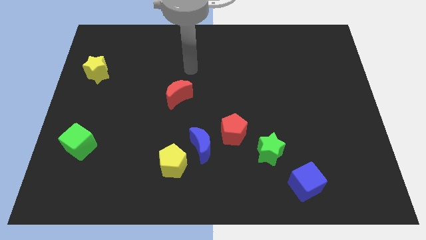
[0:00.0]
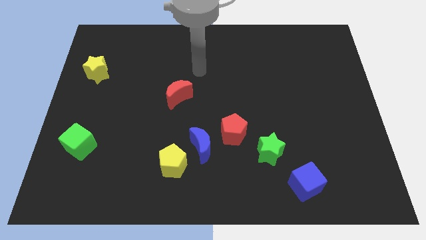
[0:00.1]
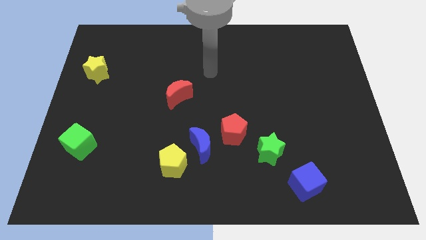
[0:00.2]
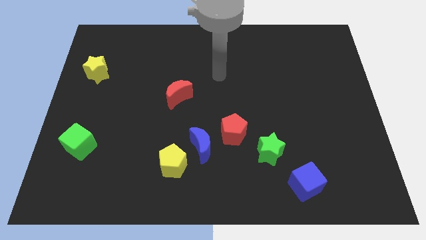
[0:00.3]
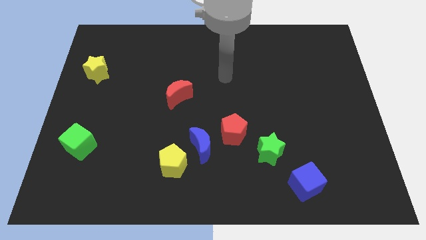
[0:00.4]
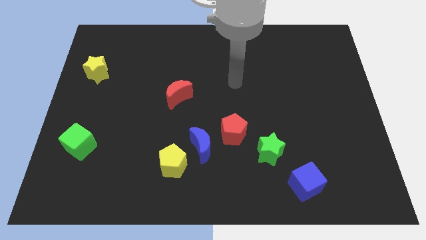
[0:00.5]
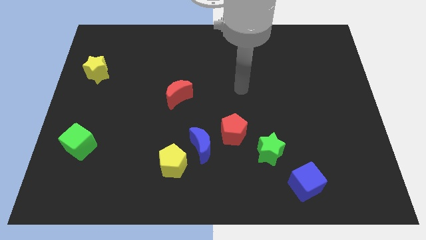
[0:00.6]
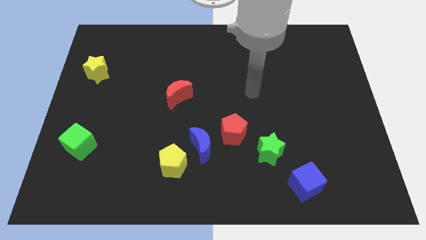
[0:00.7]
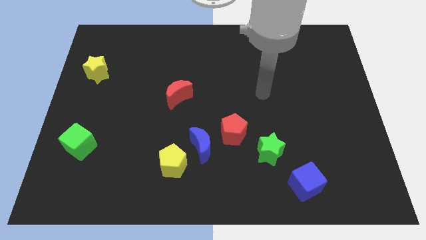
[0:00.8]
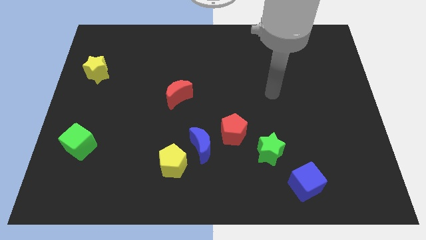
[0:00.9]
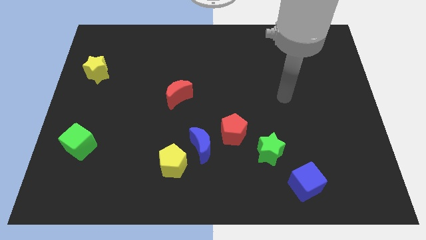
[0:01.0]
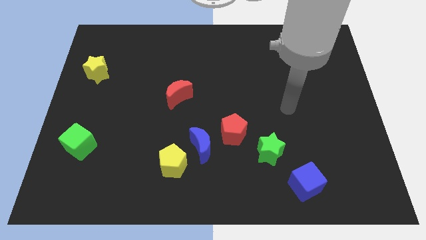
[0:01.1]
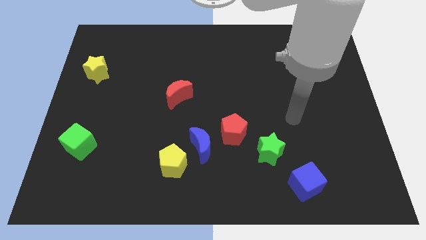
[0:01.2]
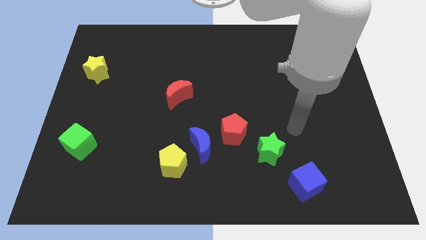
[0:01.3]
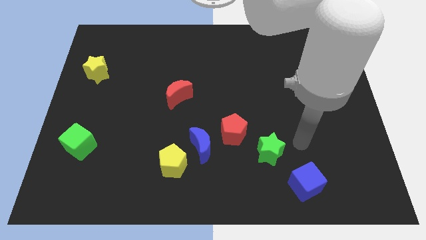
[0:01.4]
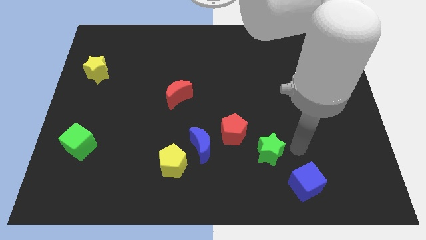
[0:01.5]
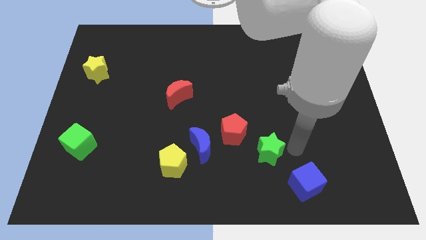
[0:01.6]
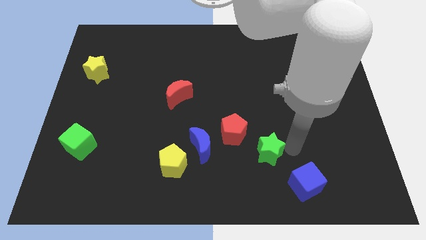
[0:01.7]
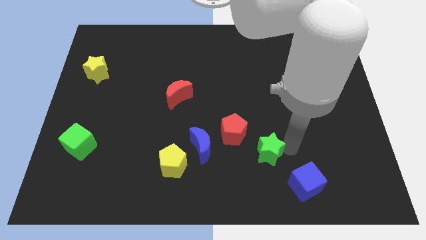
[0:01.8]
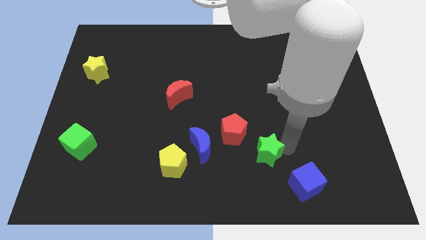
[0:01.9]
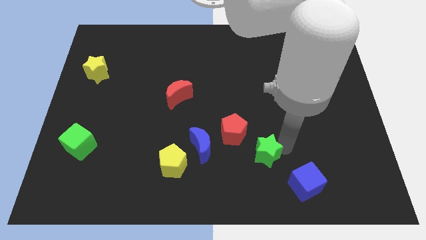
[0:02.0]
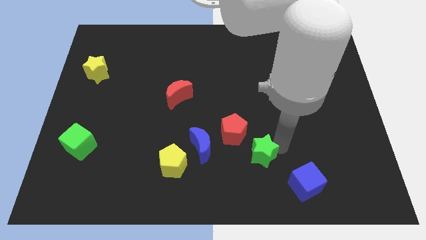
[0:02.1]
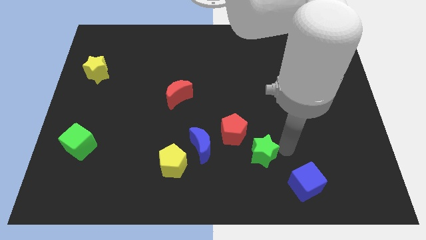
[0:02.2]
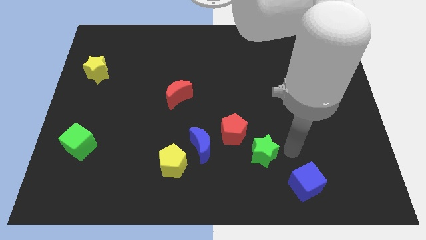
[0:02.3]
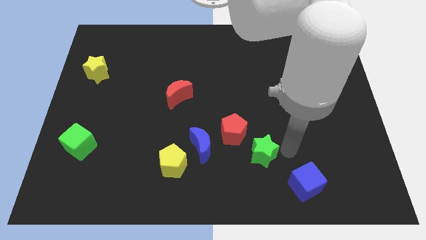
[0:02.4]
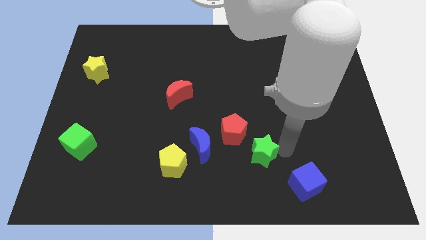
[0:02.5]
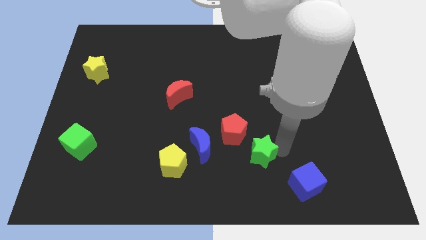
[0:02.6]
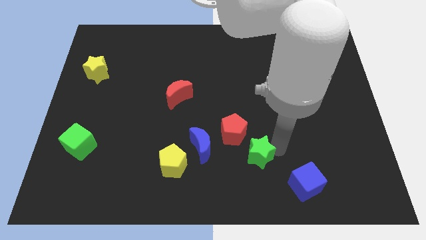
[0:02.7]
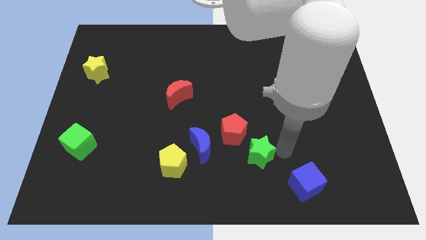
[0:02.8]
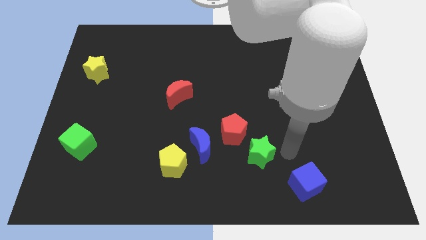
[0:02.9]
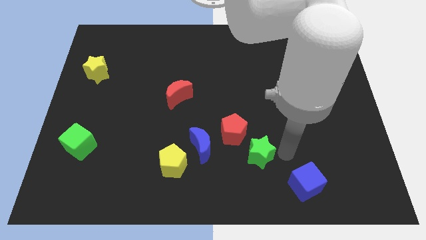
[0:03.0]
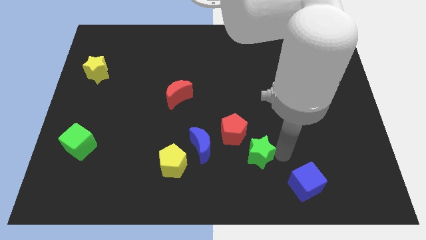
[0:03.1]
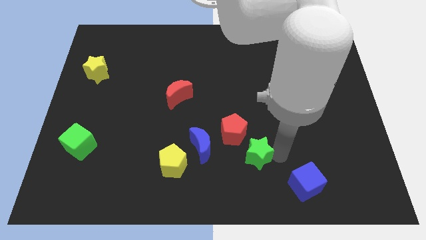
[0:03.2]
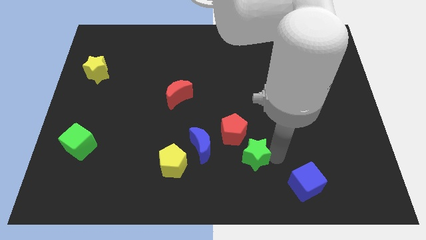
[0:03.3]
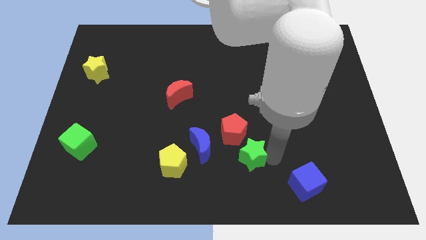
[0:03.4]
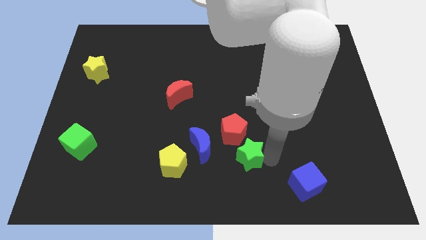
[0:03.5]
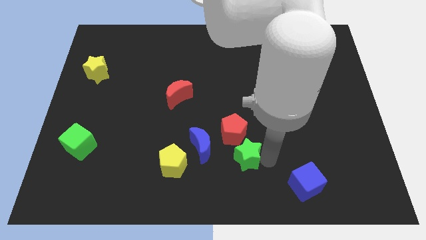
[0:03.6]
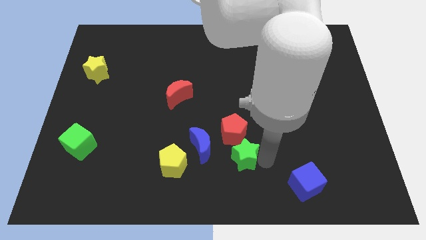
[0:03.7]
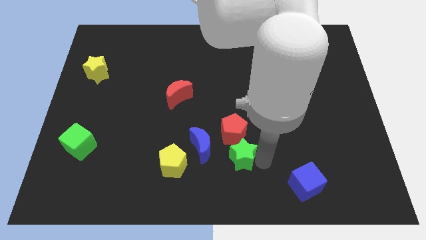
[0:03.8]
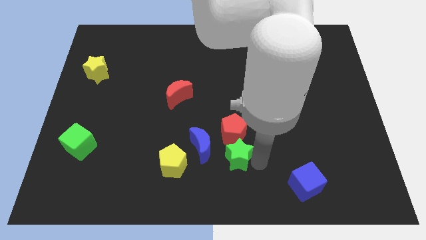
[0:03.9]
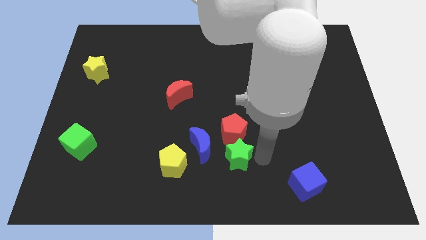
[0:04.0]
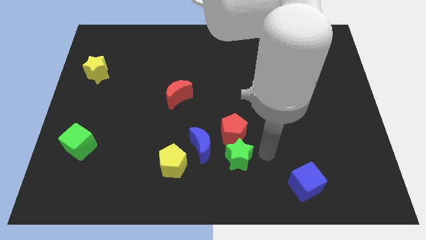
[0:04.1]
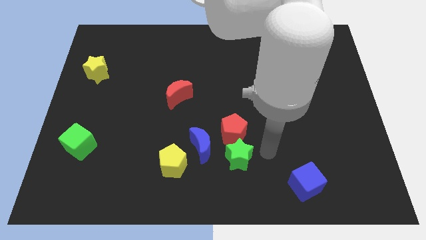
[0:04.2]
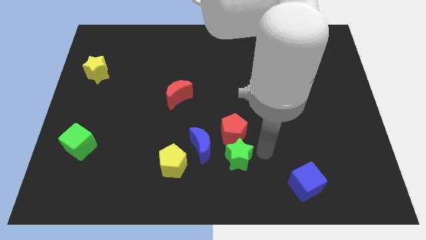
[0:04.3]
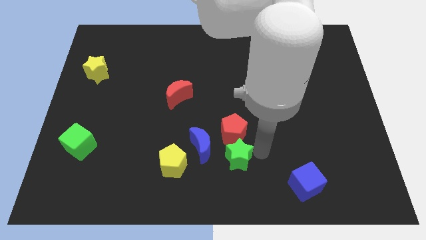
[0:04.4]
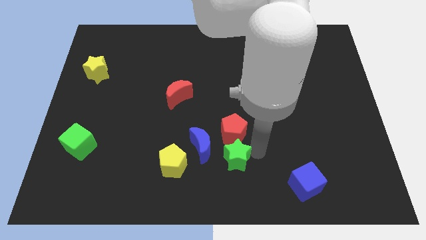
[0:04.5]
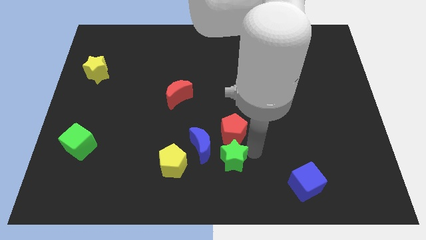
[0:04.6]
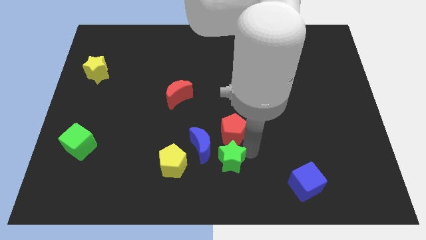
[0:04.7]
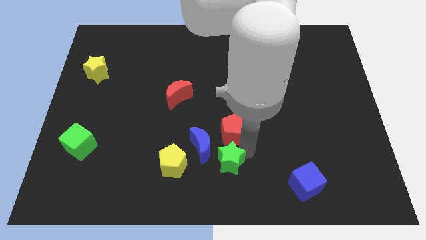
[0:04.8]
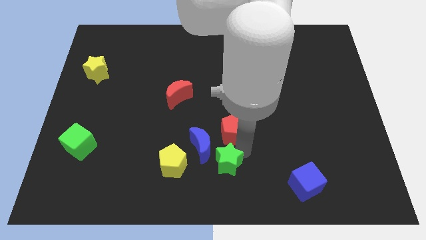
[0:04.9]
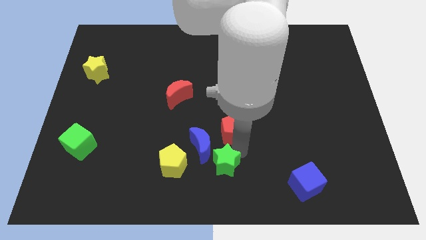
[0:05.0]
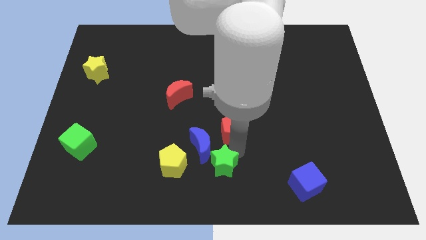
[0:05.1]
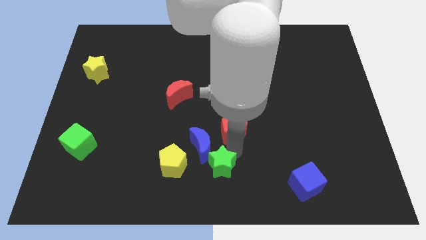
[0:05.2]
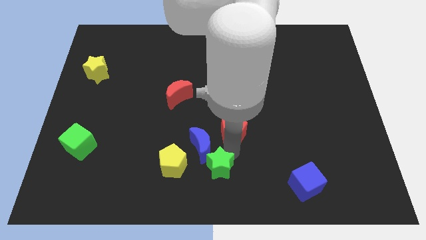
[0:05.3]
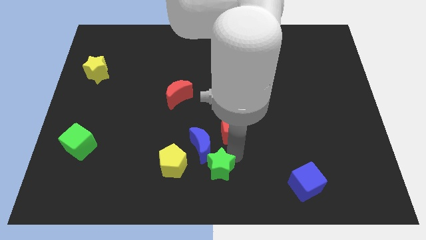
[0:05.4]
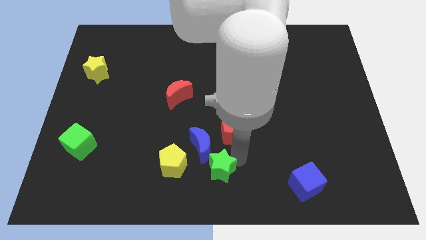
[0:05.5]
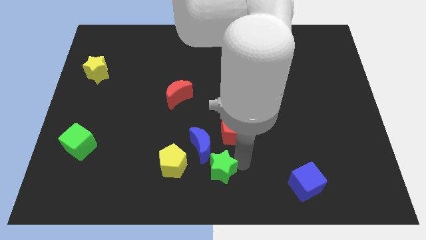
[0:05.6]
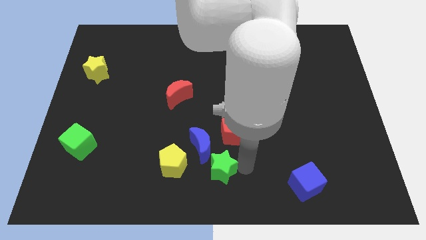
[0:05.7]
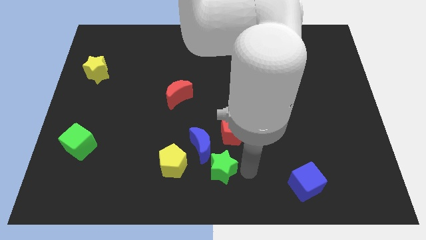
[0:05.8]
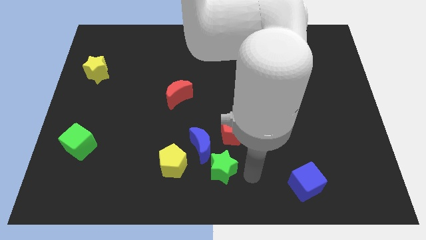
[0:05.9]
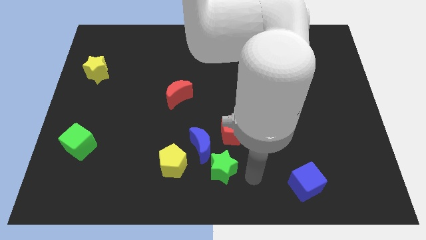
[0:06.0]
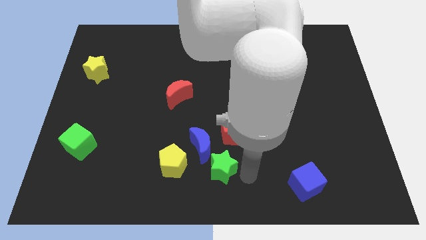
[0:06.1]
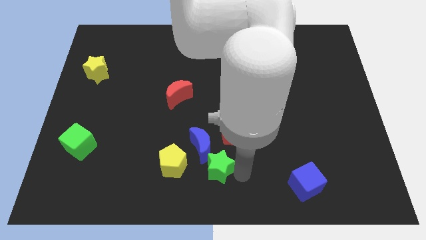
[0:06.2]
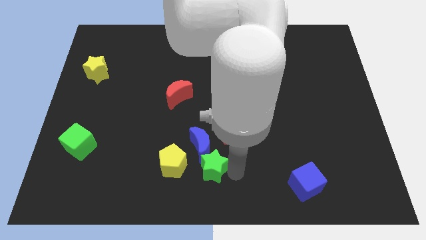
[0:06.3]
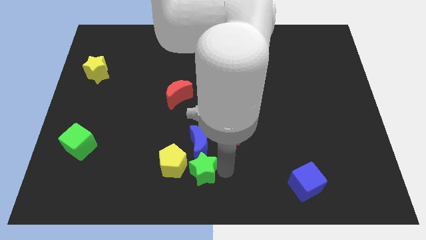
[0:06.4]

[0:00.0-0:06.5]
slide the green star next to the yellow pentagon

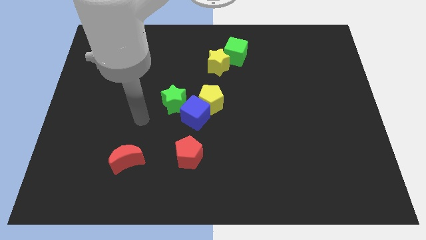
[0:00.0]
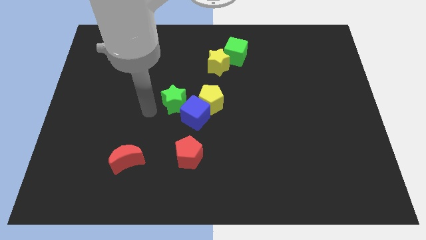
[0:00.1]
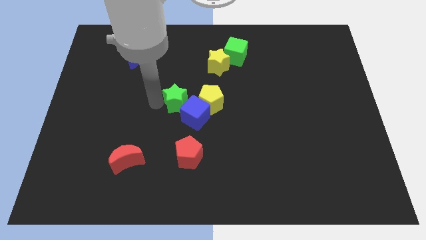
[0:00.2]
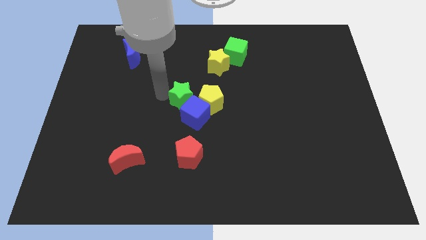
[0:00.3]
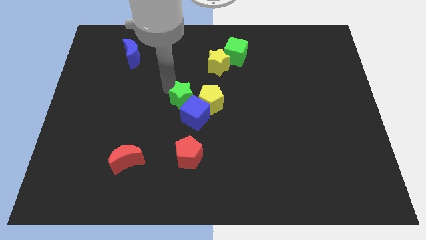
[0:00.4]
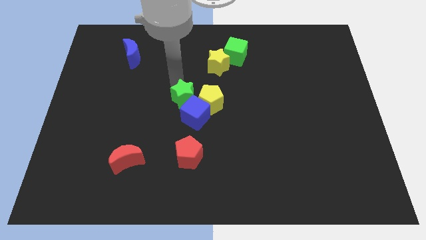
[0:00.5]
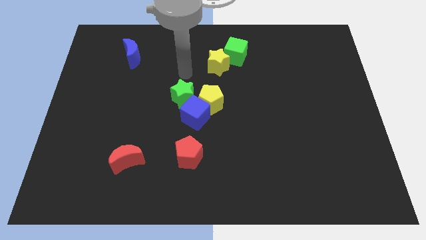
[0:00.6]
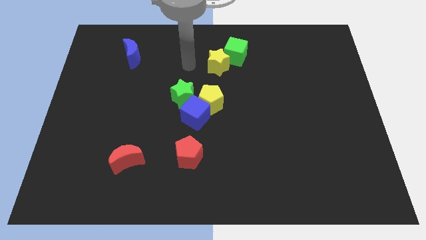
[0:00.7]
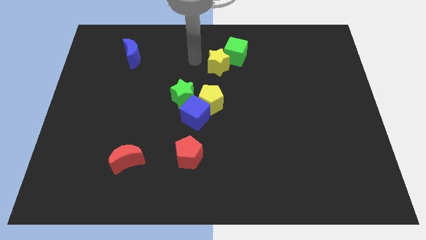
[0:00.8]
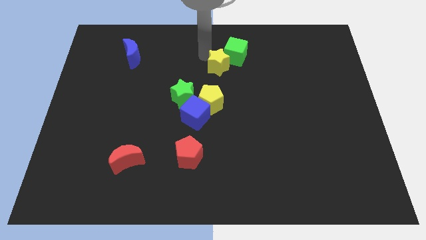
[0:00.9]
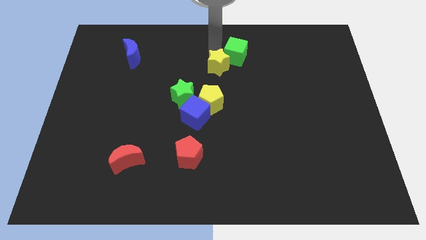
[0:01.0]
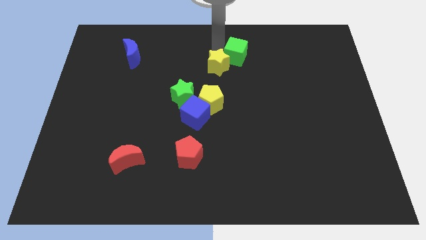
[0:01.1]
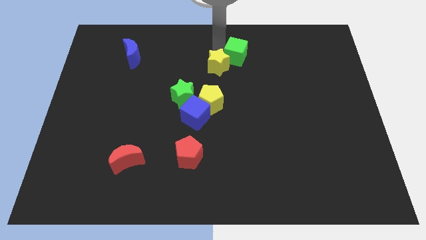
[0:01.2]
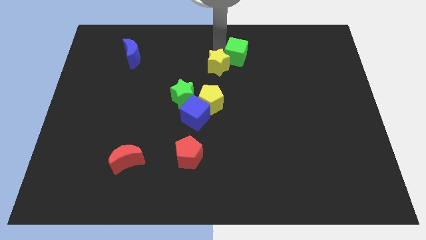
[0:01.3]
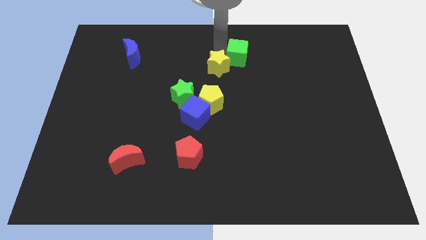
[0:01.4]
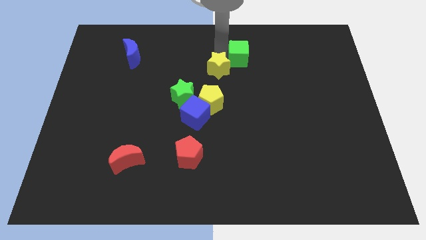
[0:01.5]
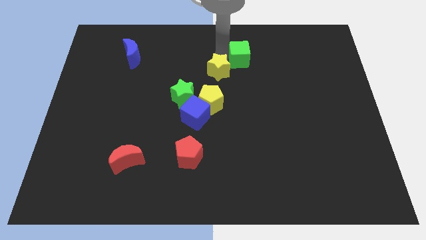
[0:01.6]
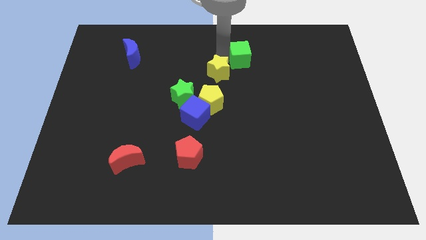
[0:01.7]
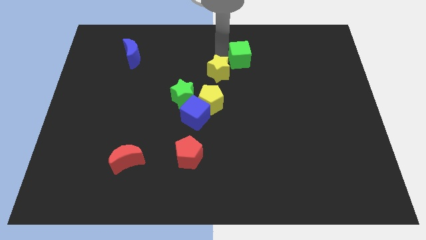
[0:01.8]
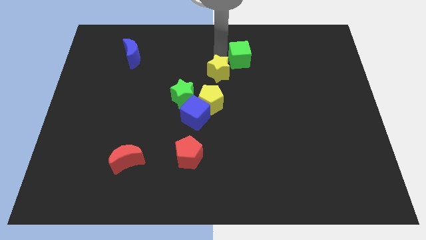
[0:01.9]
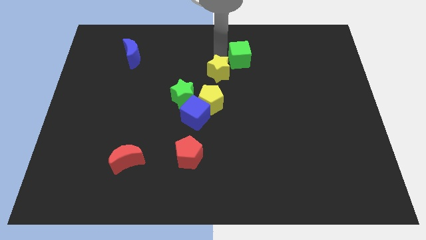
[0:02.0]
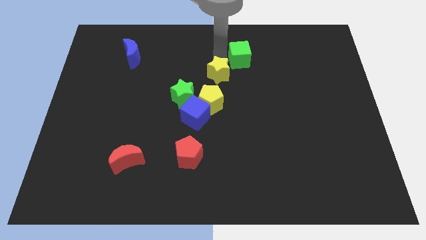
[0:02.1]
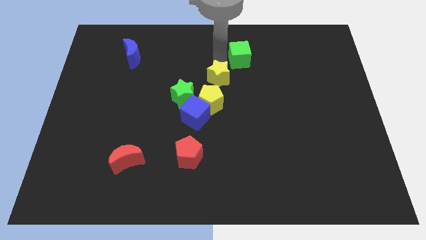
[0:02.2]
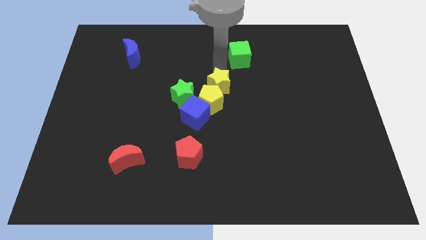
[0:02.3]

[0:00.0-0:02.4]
put the yellow star to the yellow pentagon
